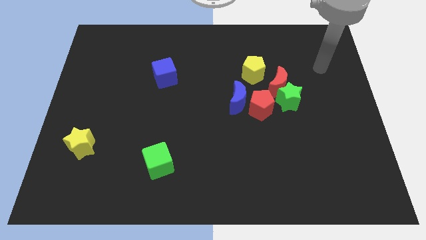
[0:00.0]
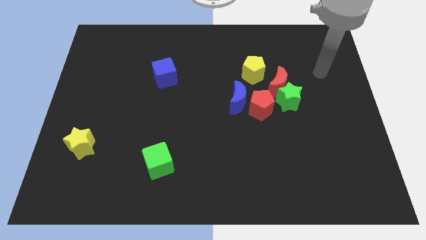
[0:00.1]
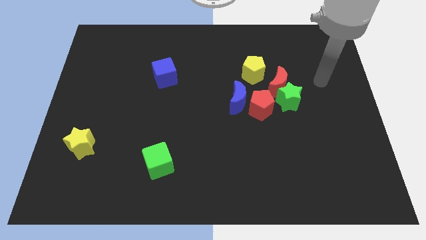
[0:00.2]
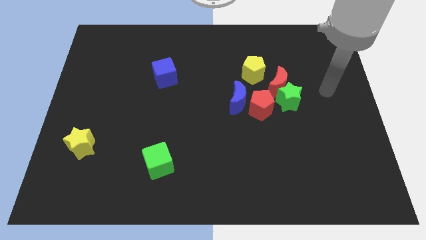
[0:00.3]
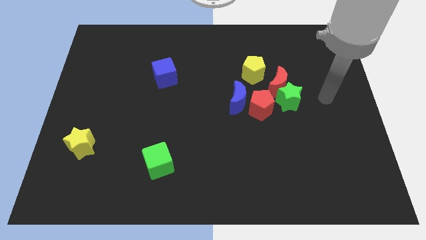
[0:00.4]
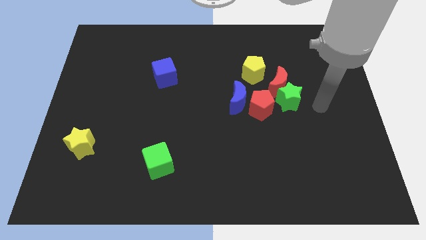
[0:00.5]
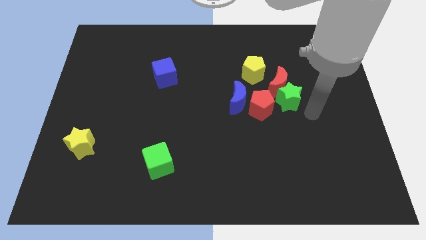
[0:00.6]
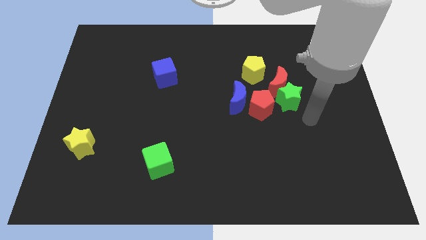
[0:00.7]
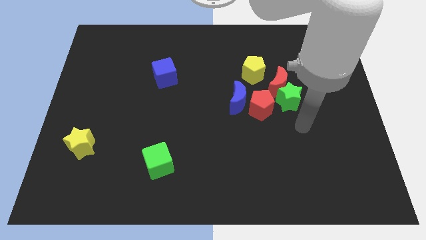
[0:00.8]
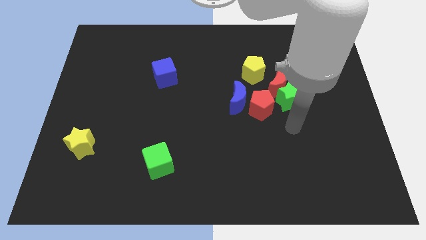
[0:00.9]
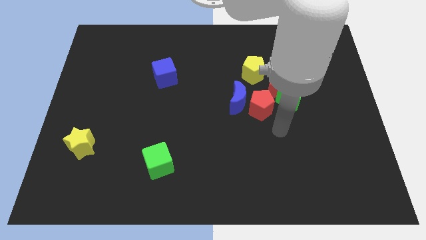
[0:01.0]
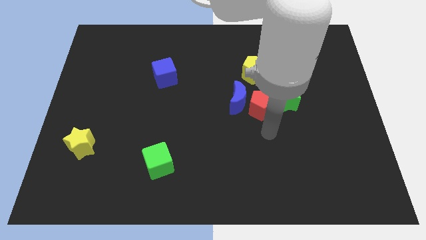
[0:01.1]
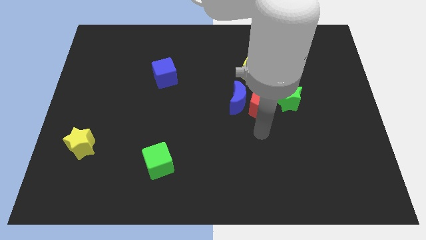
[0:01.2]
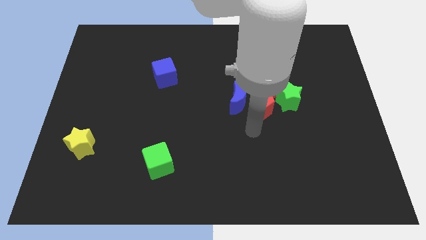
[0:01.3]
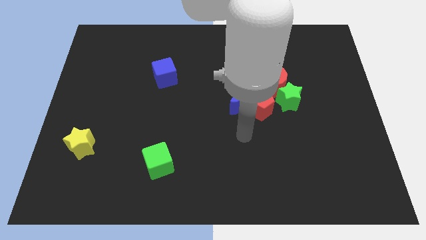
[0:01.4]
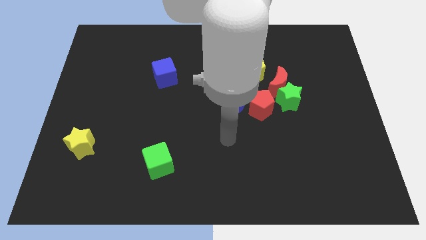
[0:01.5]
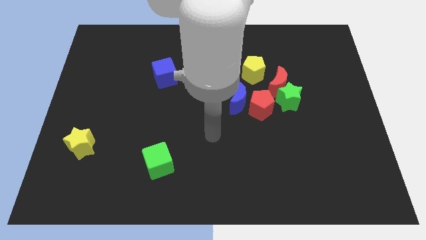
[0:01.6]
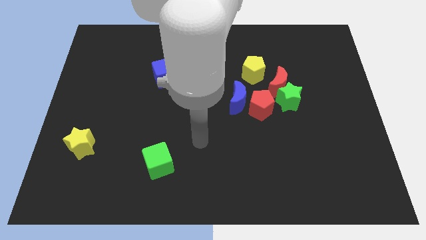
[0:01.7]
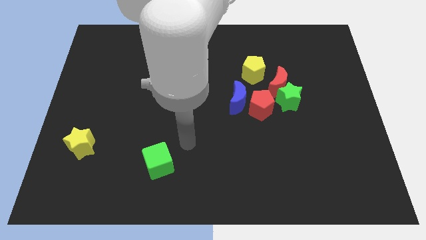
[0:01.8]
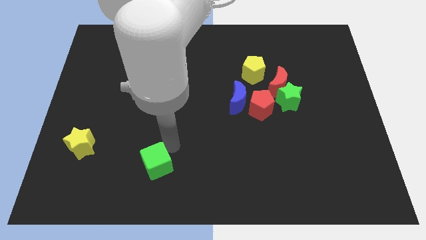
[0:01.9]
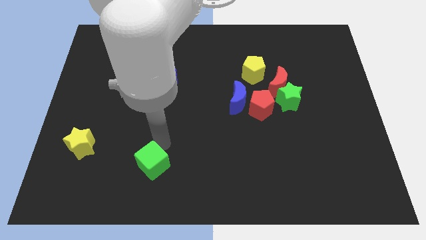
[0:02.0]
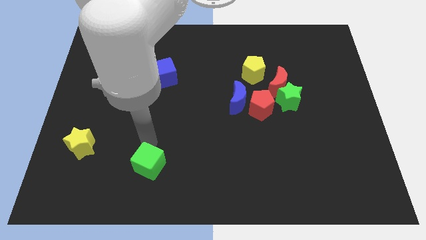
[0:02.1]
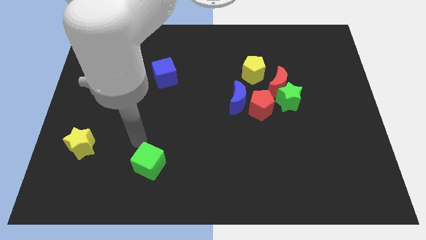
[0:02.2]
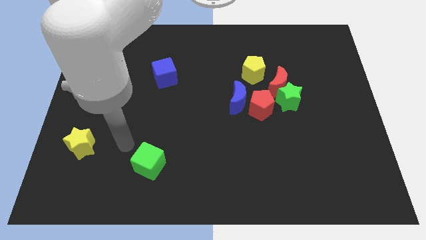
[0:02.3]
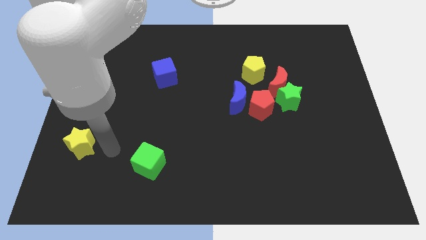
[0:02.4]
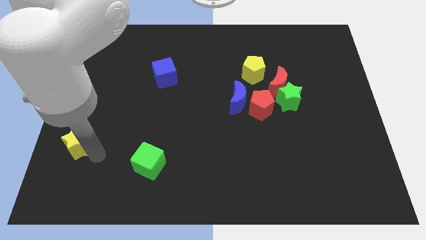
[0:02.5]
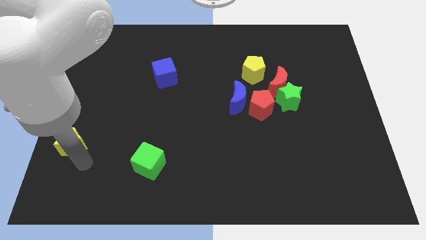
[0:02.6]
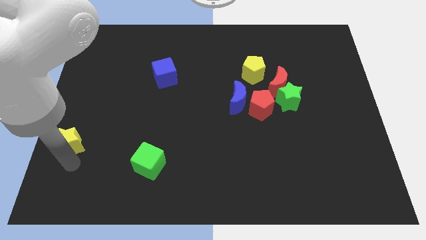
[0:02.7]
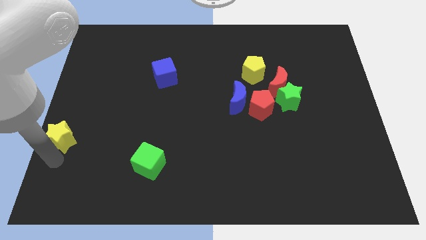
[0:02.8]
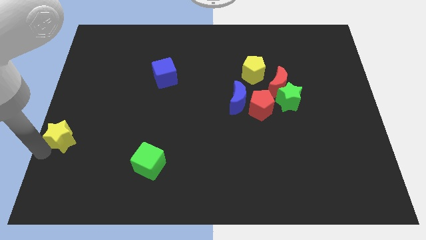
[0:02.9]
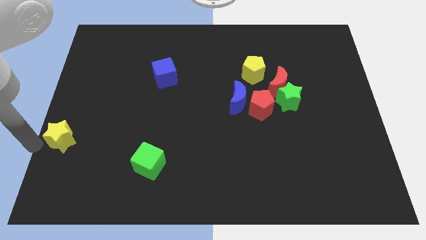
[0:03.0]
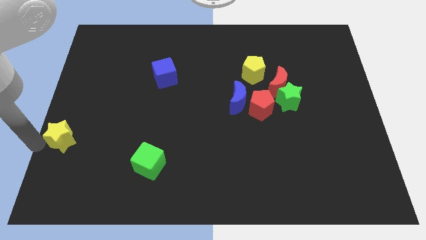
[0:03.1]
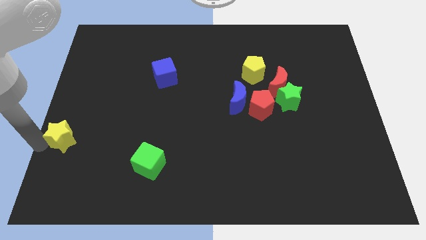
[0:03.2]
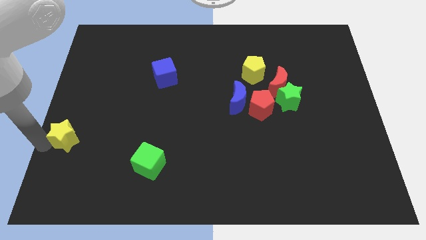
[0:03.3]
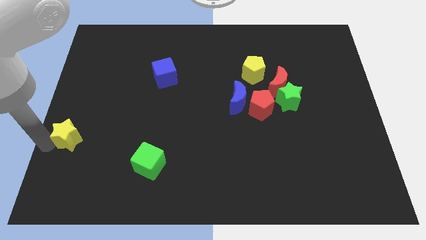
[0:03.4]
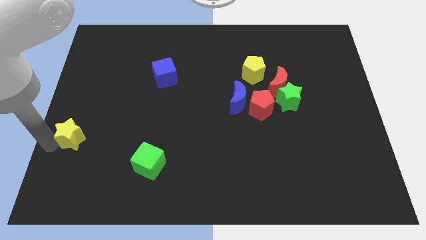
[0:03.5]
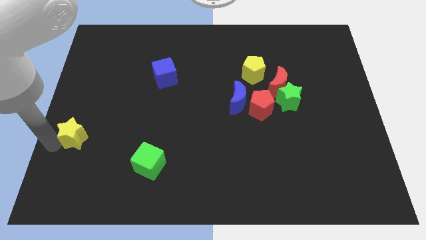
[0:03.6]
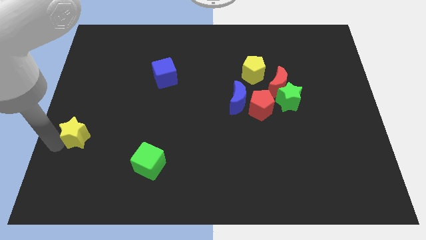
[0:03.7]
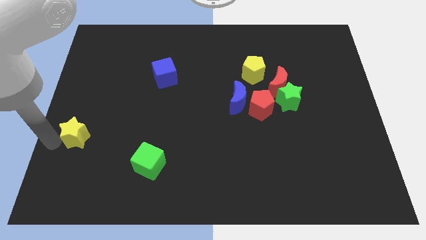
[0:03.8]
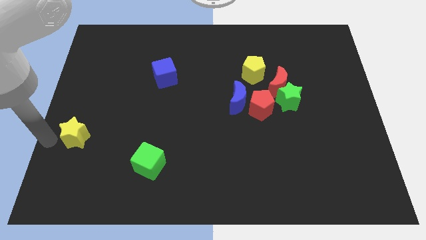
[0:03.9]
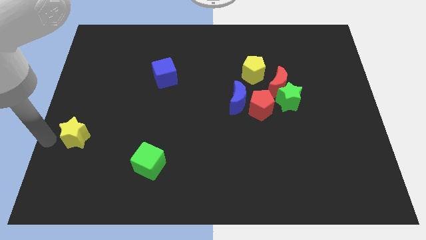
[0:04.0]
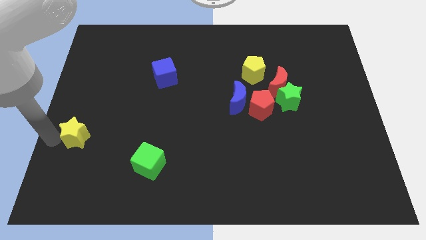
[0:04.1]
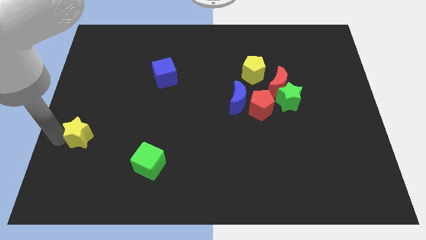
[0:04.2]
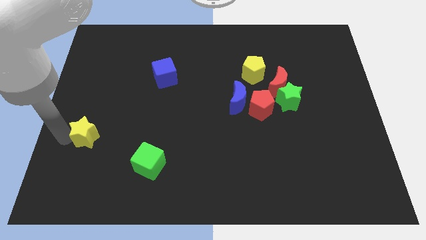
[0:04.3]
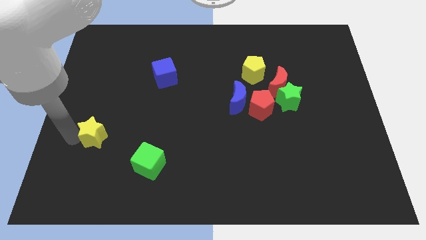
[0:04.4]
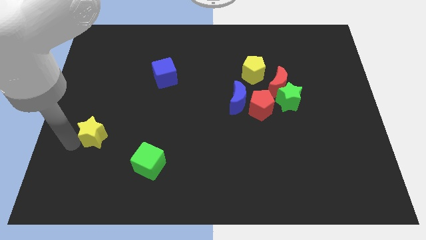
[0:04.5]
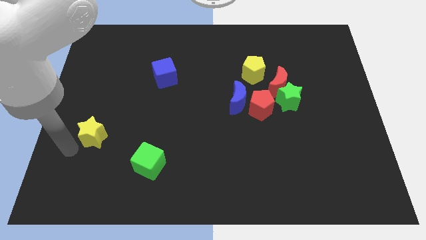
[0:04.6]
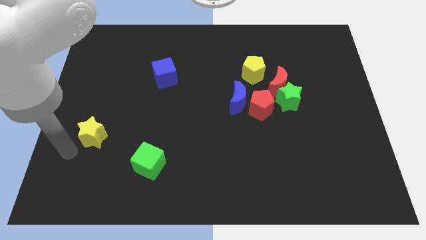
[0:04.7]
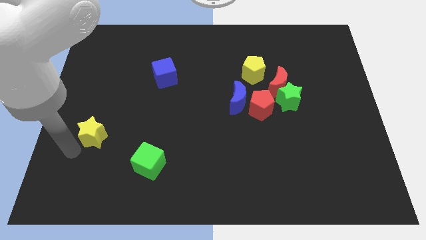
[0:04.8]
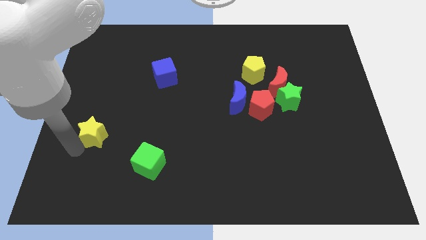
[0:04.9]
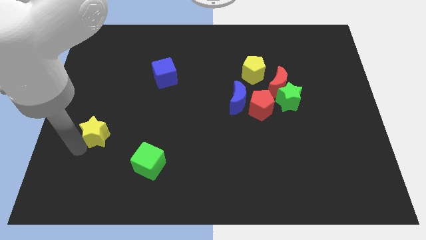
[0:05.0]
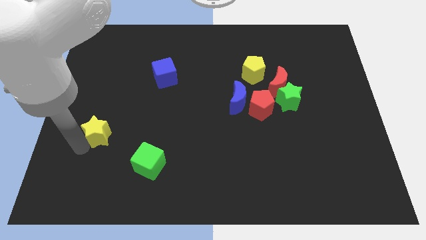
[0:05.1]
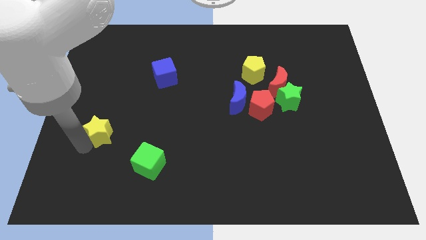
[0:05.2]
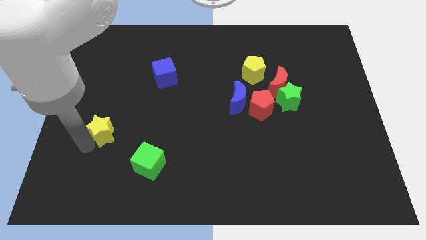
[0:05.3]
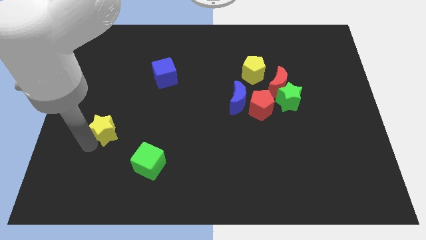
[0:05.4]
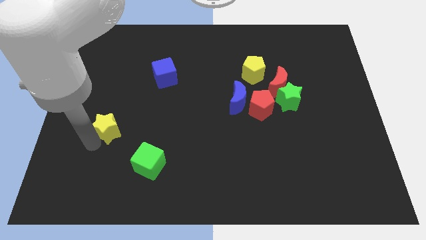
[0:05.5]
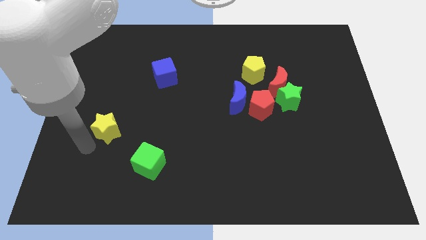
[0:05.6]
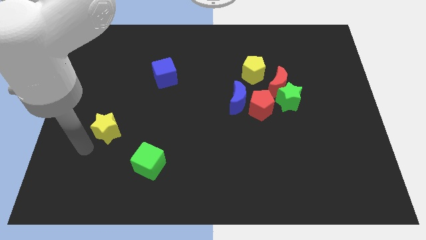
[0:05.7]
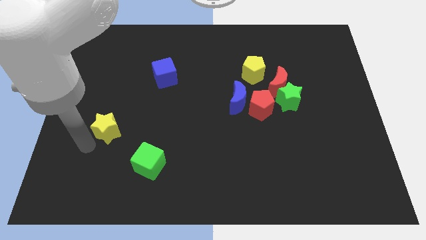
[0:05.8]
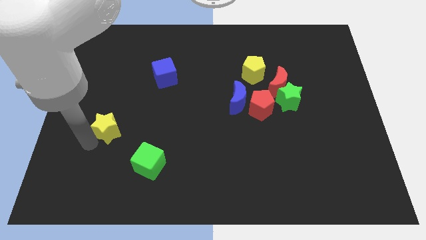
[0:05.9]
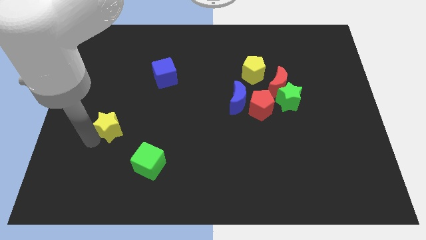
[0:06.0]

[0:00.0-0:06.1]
move the yellow star a little bit upwards and then to the right

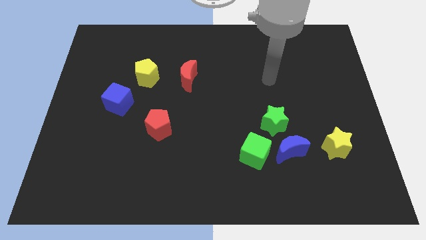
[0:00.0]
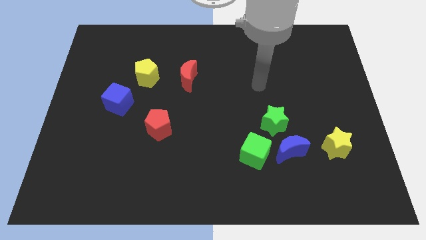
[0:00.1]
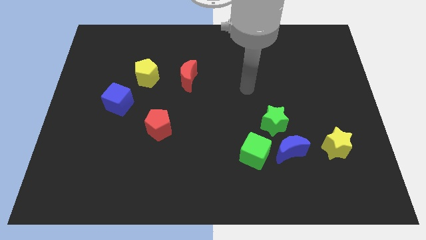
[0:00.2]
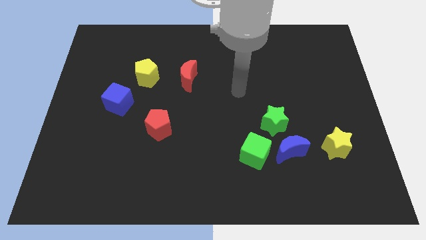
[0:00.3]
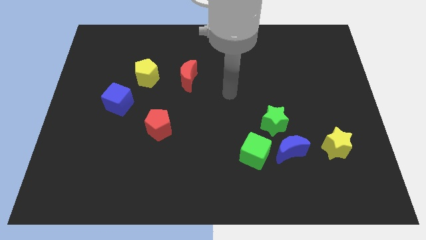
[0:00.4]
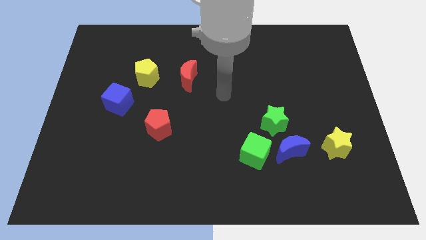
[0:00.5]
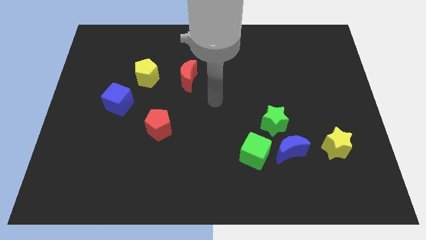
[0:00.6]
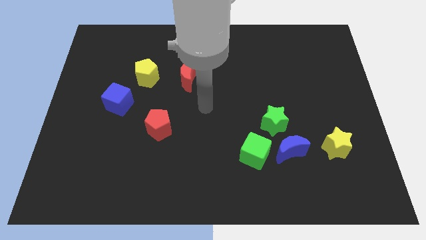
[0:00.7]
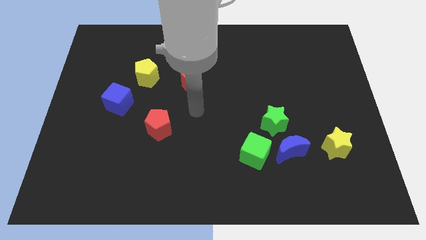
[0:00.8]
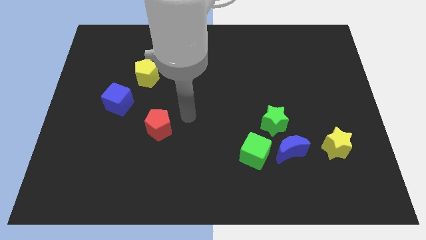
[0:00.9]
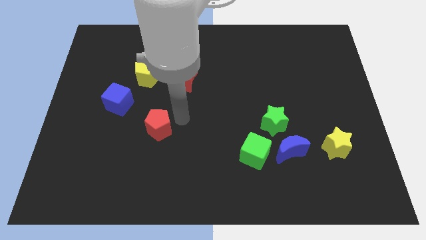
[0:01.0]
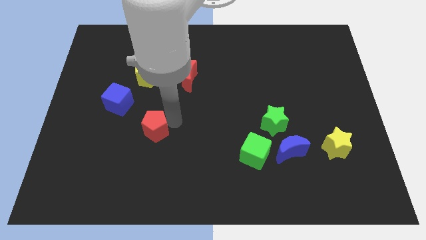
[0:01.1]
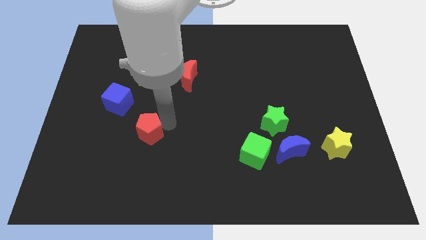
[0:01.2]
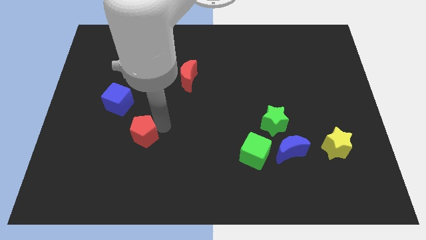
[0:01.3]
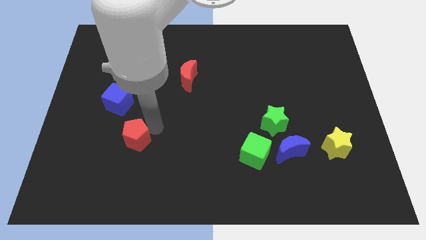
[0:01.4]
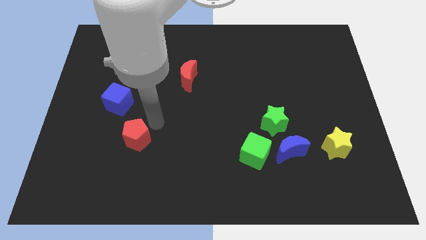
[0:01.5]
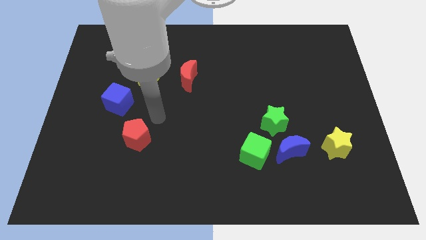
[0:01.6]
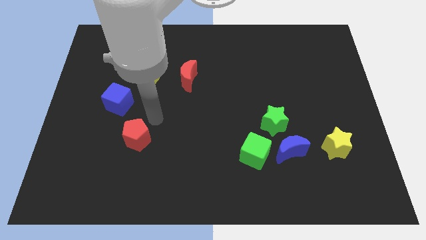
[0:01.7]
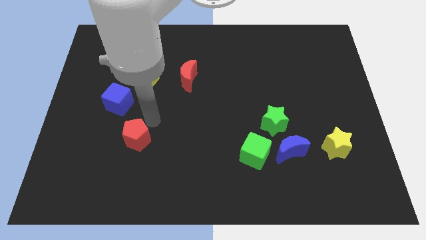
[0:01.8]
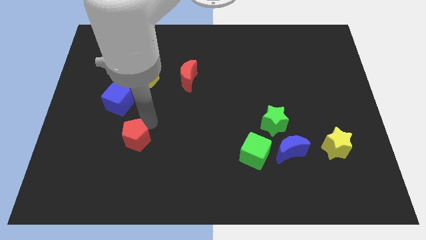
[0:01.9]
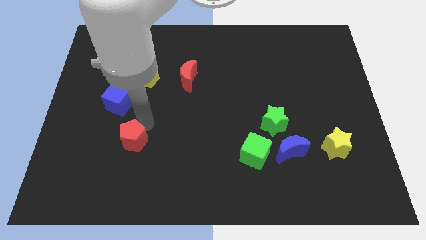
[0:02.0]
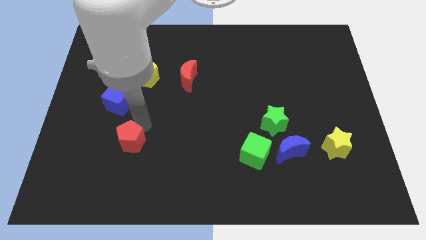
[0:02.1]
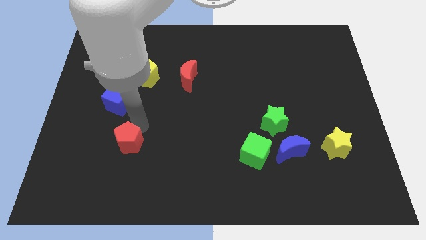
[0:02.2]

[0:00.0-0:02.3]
slightly push the red pentagon down and left diagonally
